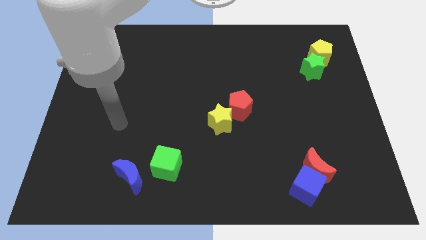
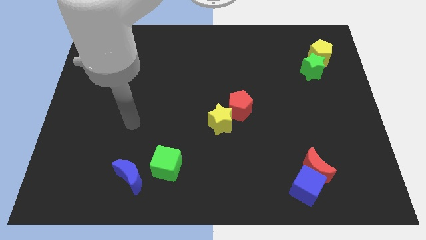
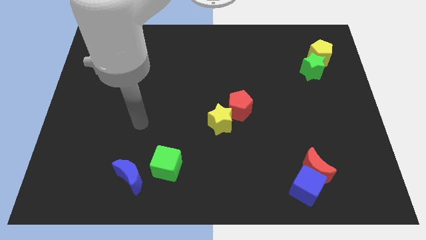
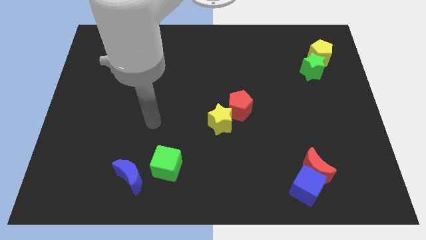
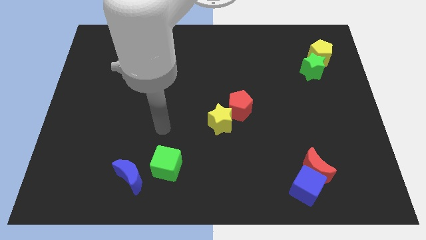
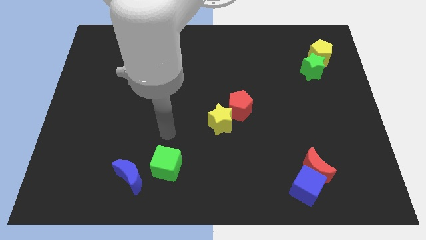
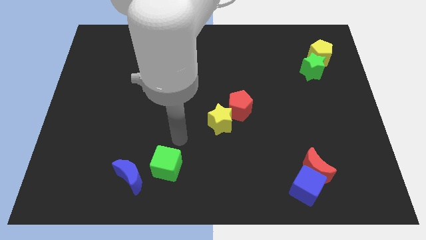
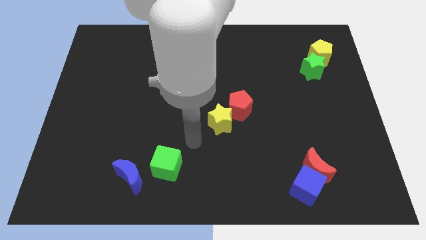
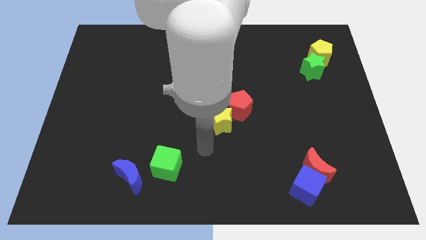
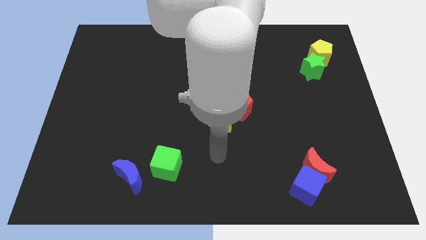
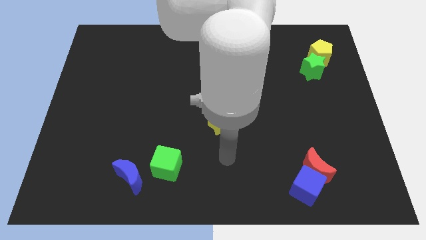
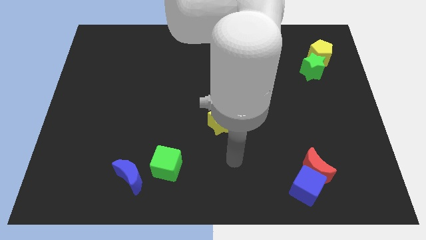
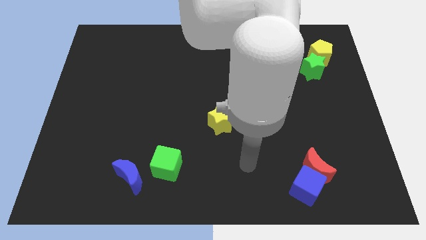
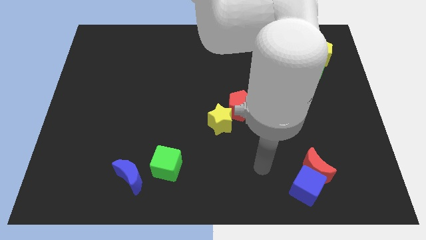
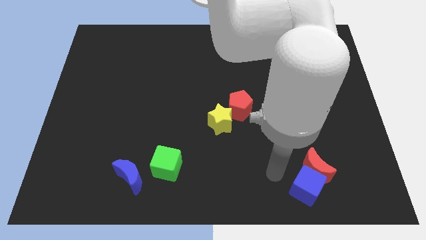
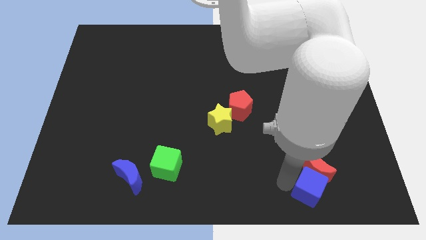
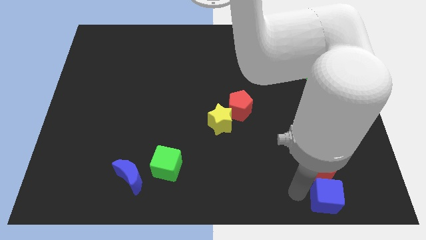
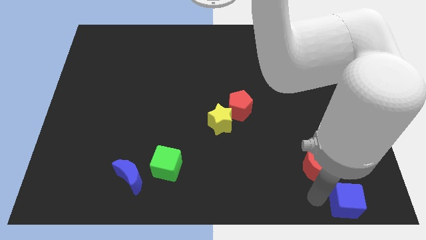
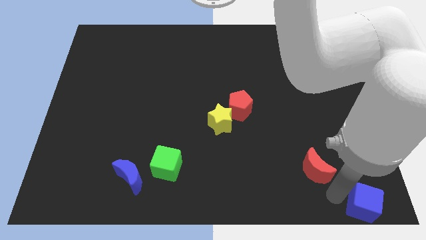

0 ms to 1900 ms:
pull the red moon apart from the blue cube

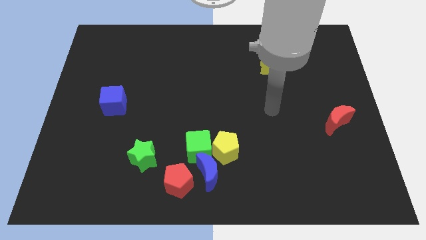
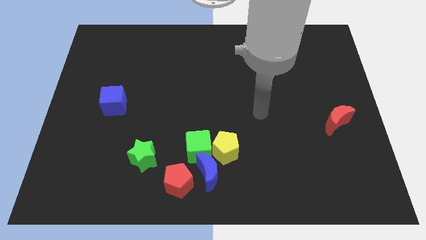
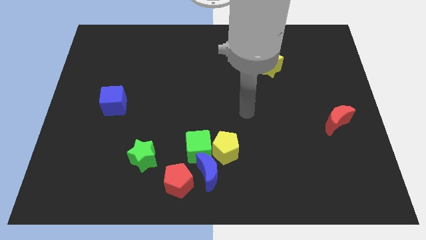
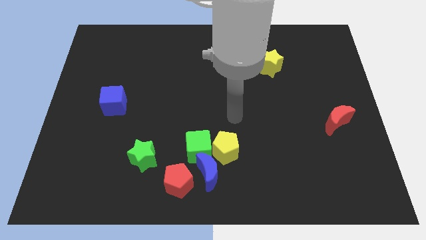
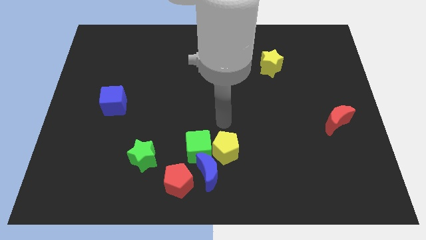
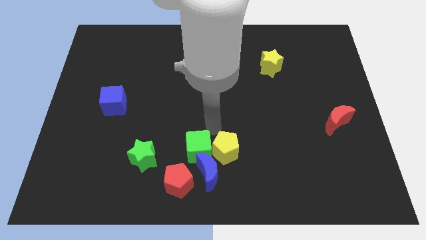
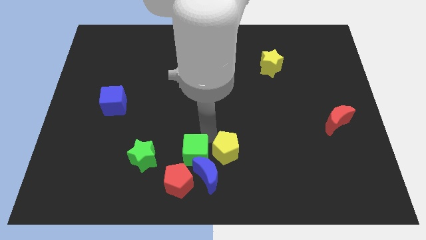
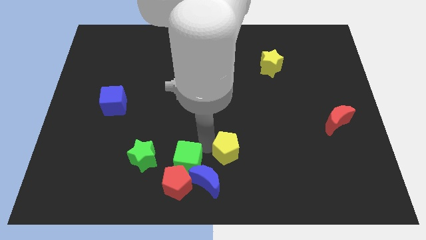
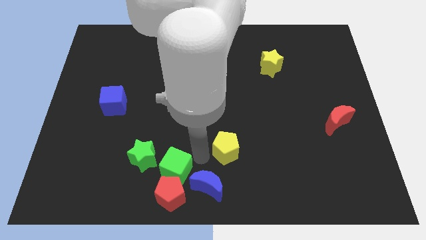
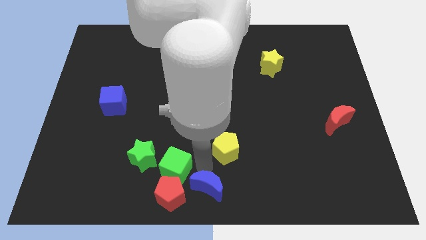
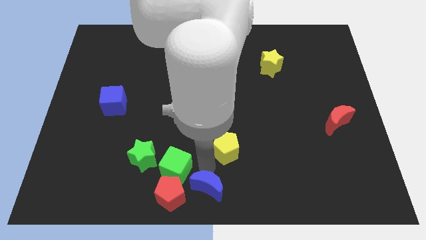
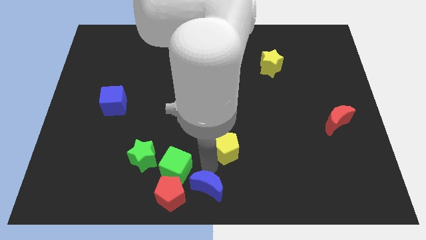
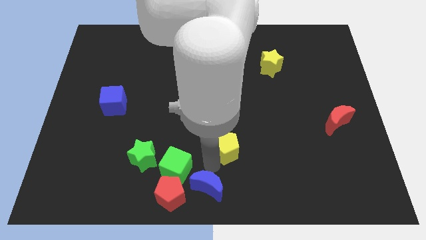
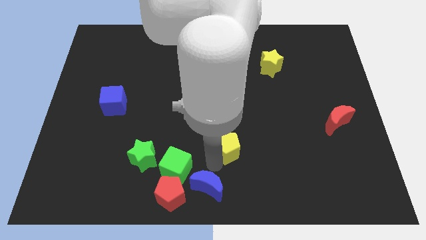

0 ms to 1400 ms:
pull the yellow pentagon apart from the green cube and blue moon

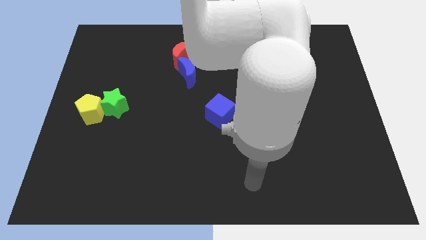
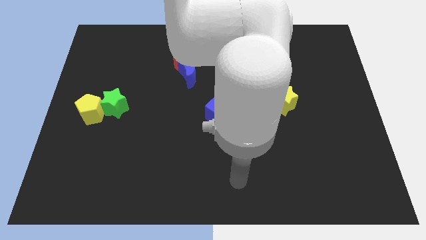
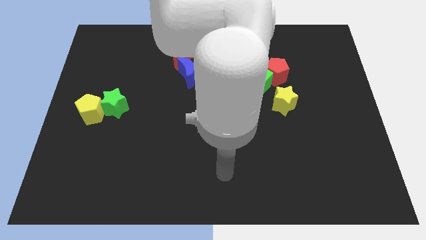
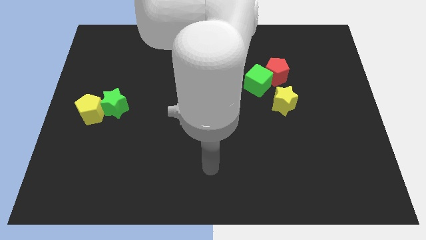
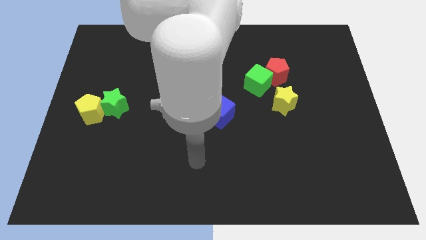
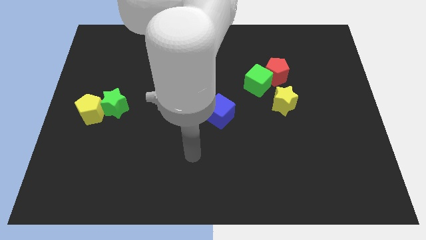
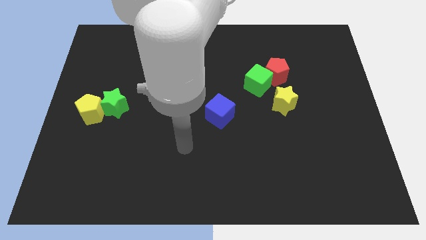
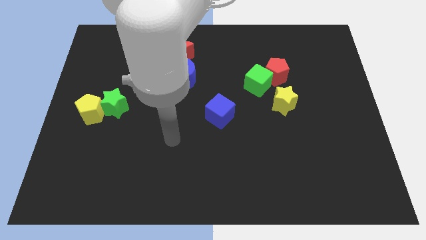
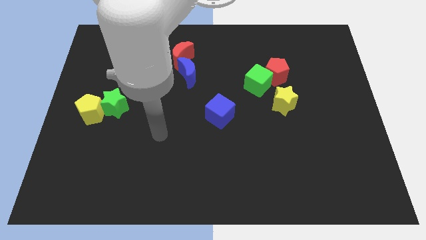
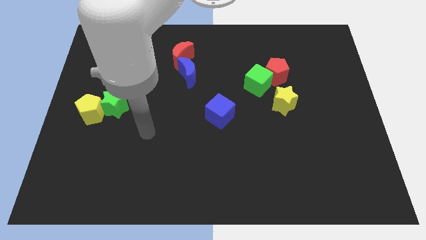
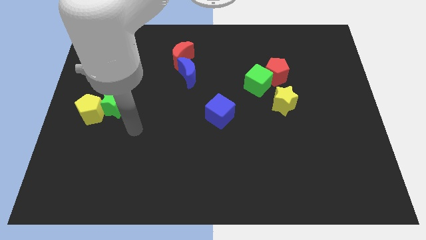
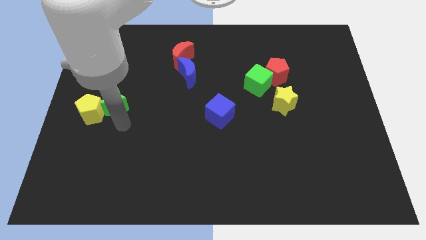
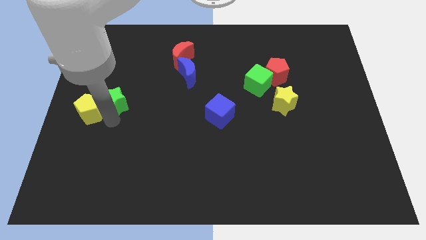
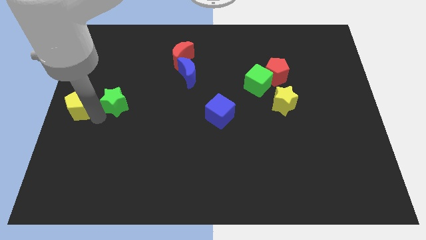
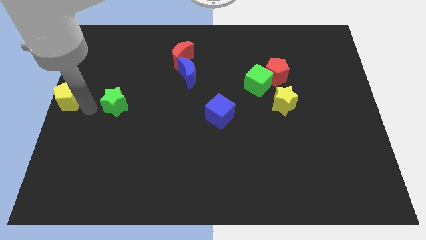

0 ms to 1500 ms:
pull the green star apart from the yellow pentagon

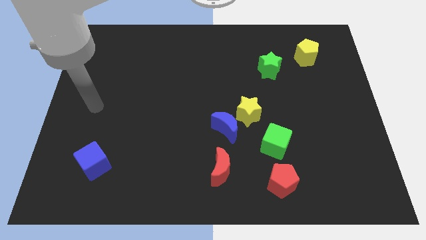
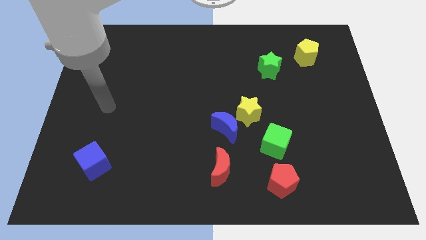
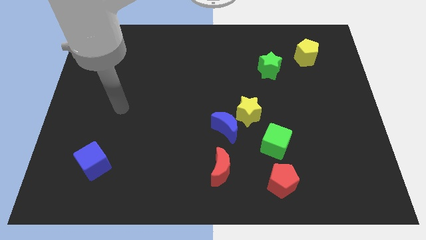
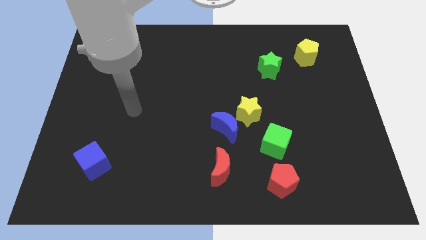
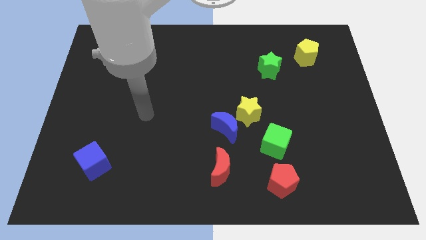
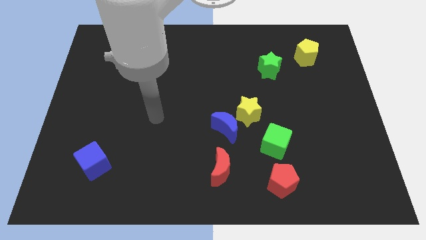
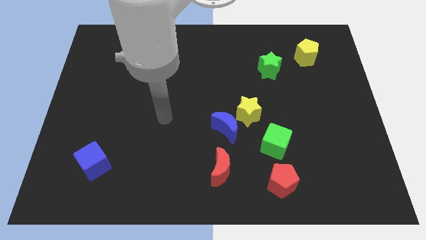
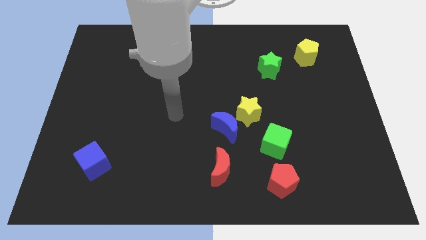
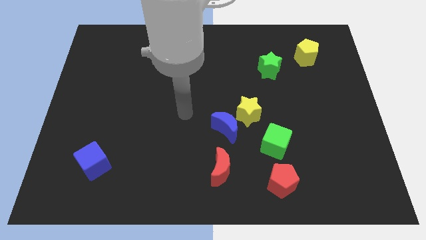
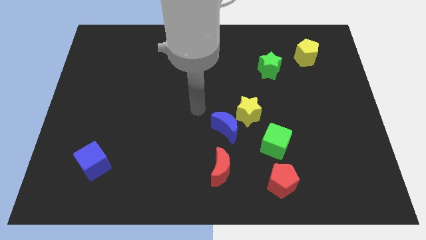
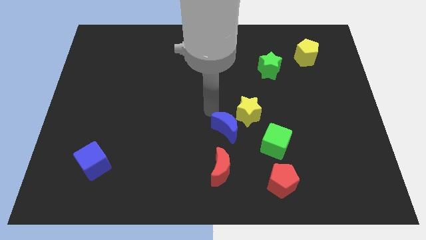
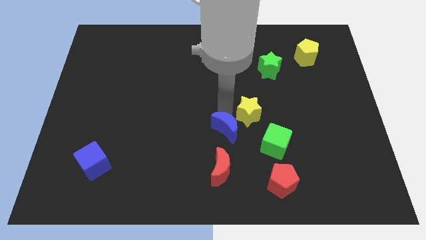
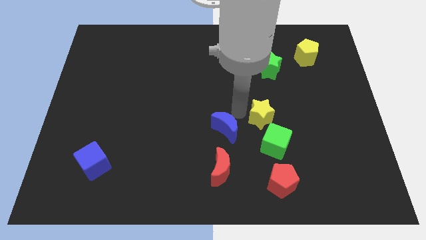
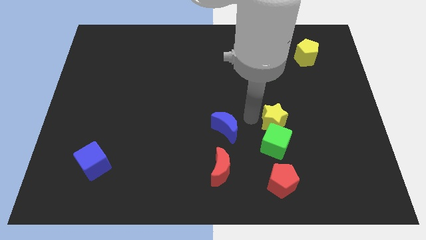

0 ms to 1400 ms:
pull the blue moon apart from the yellow star

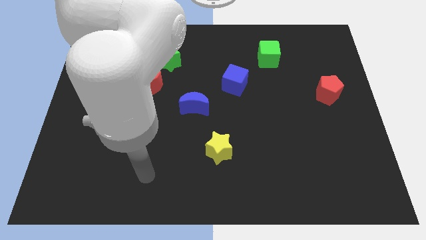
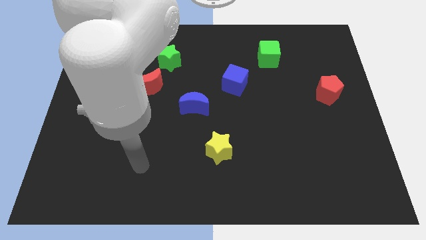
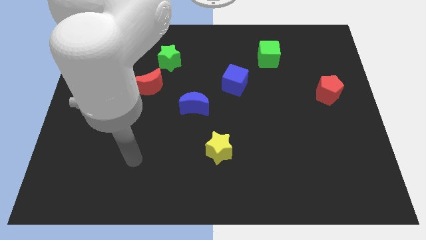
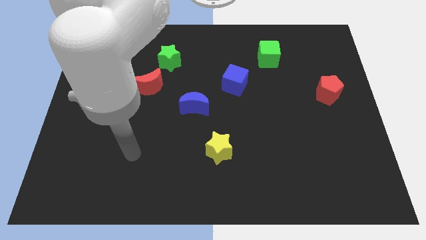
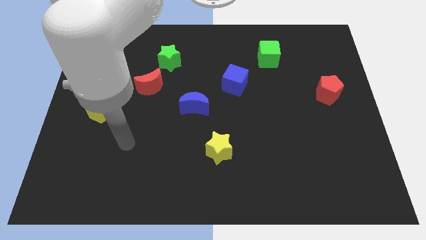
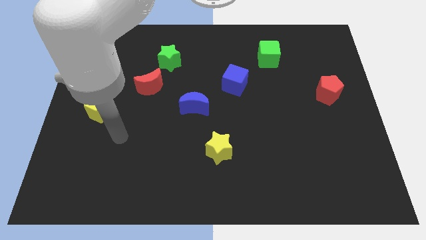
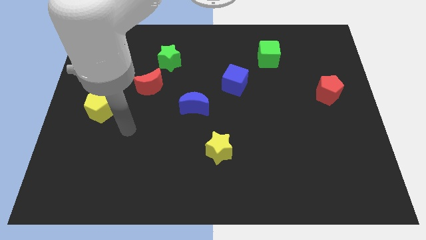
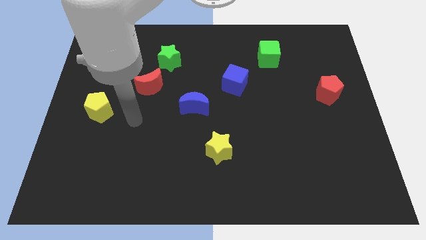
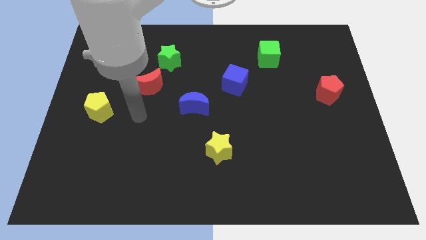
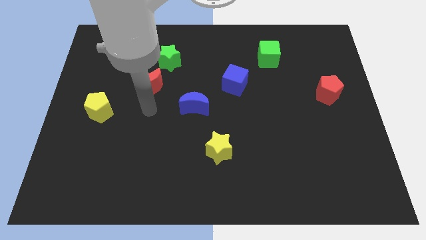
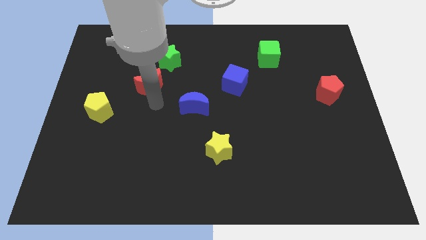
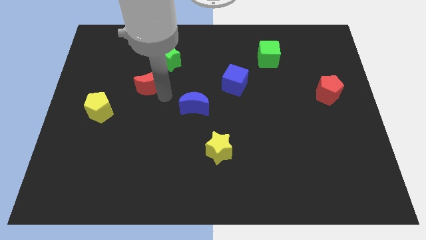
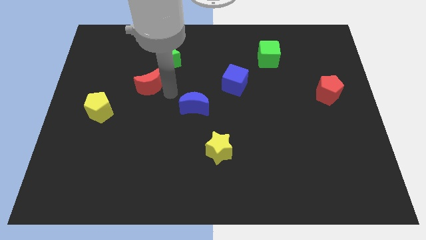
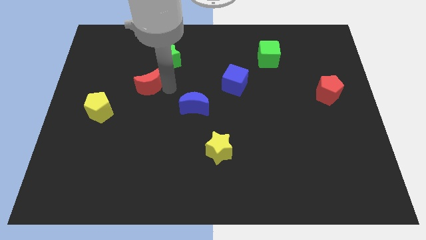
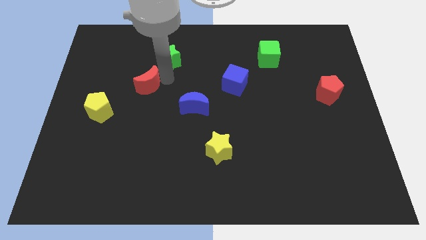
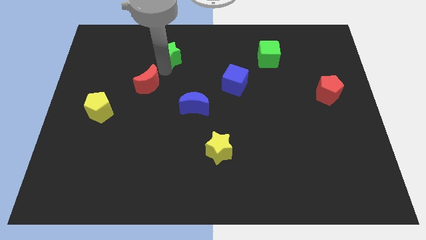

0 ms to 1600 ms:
pull the red moon apart from the green star

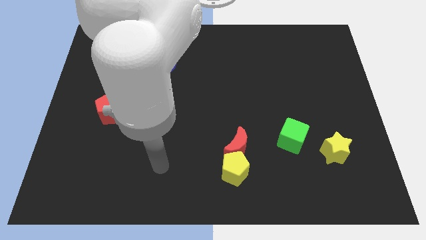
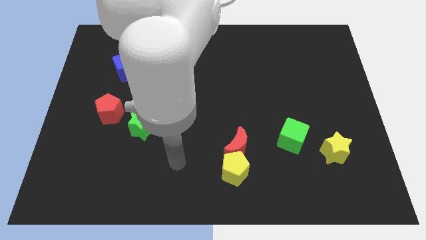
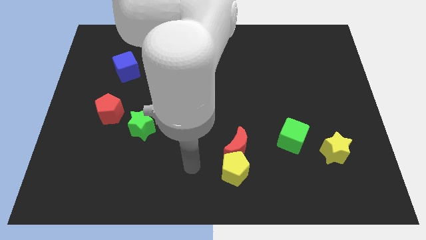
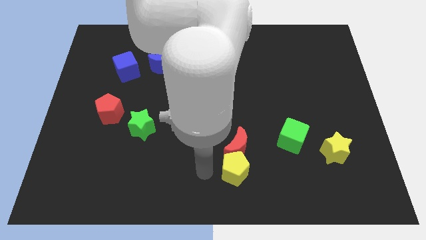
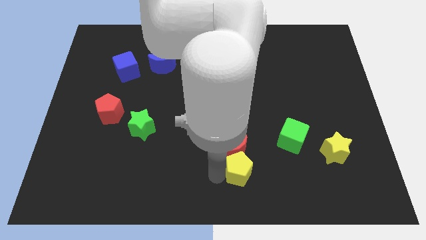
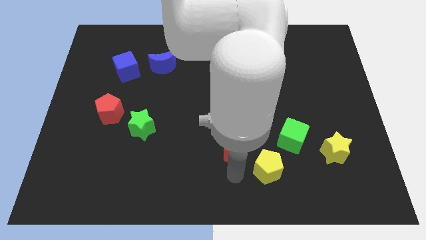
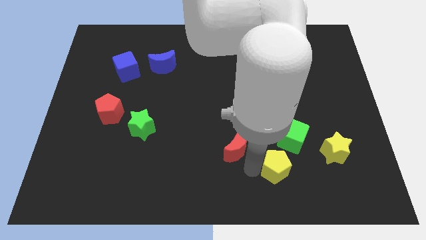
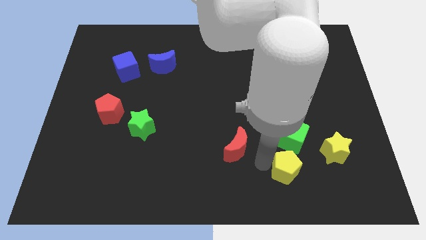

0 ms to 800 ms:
pull the red moon apart from the yellow pentagon

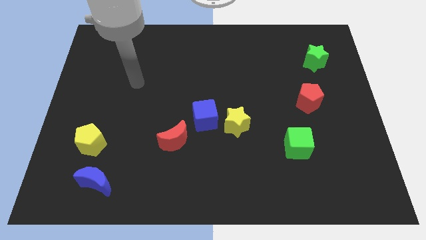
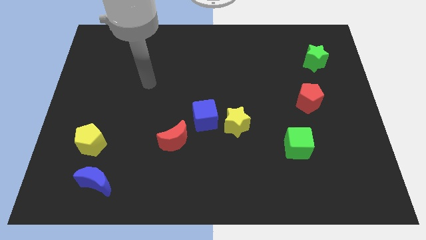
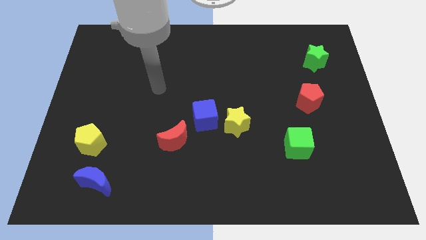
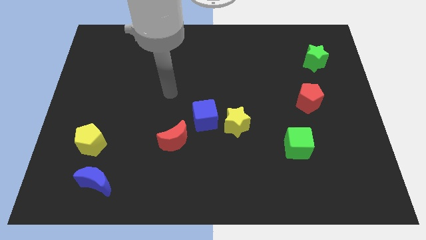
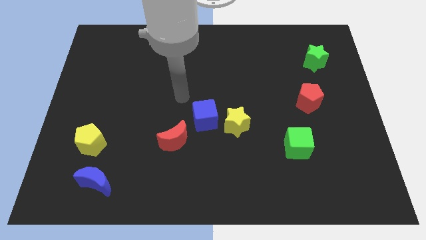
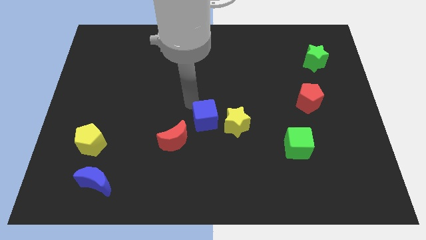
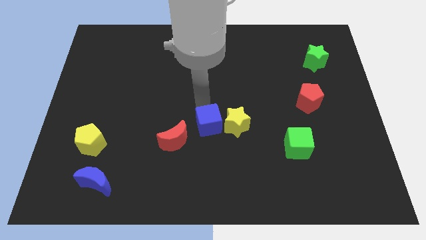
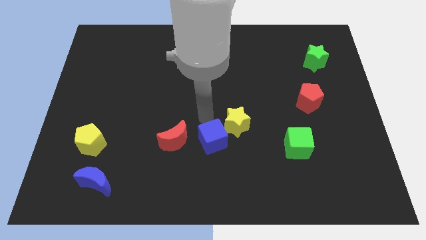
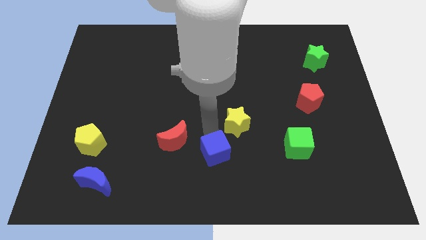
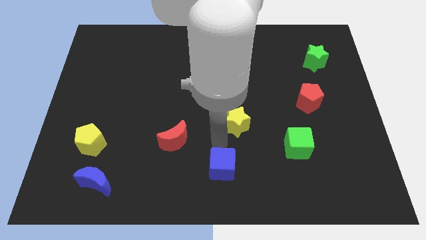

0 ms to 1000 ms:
separate the yellow star from the blue cube
